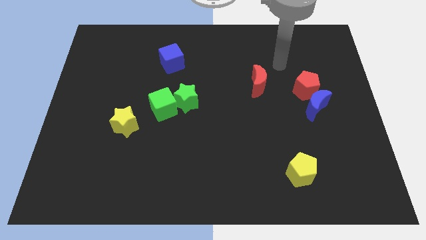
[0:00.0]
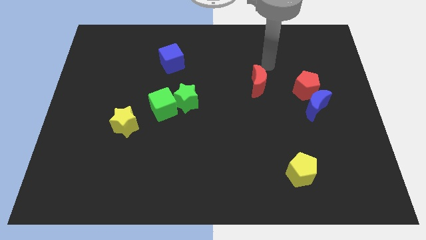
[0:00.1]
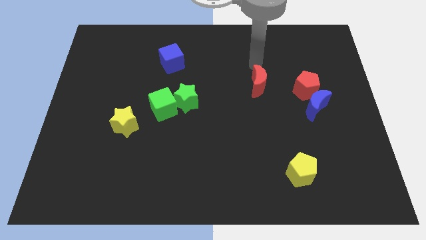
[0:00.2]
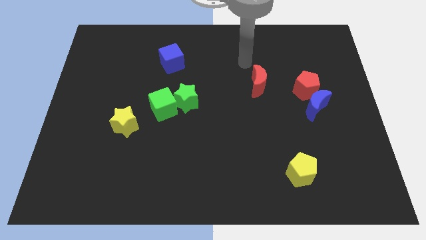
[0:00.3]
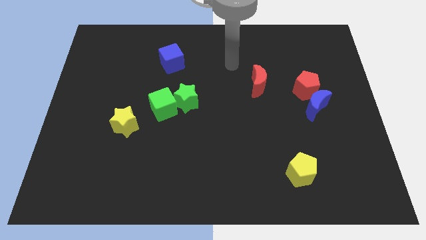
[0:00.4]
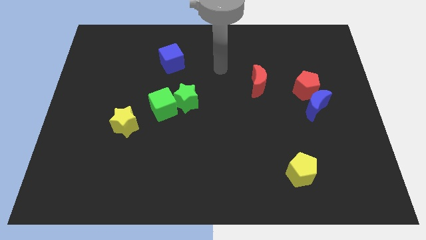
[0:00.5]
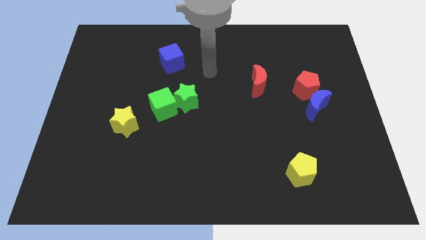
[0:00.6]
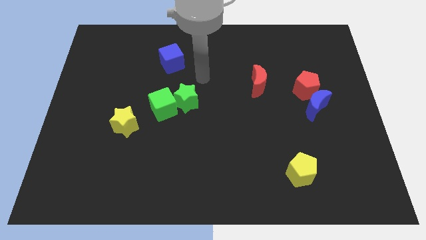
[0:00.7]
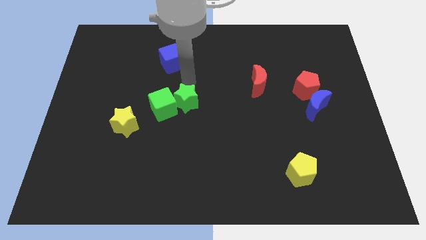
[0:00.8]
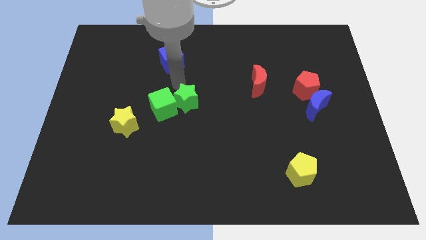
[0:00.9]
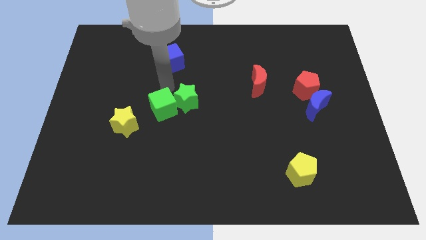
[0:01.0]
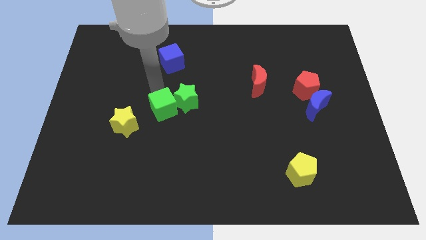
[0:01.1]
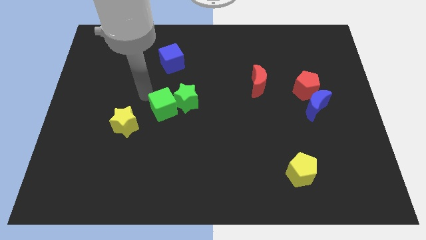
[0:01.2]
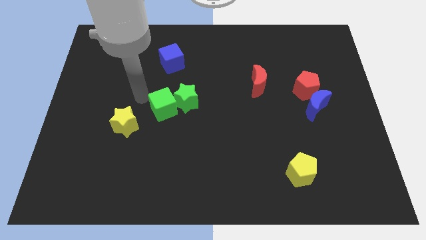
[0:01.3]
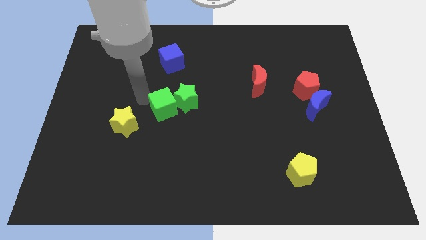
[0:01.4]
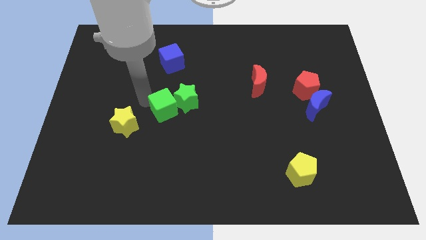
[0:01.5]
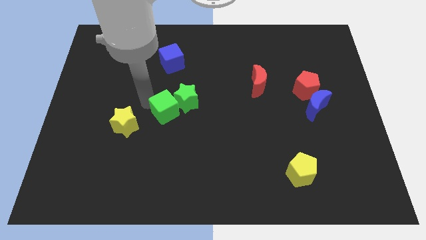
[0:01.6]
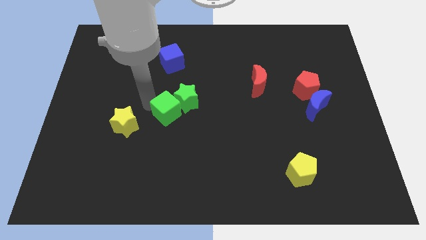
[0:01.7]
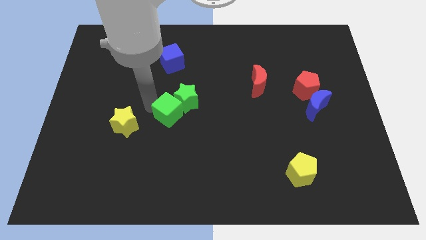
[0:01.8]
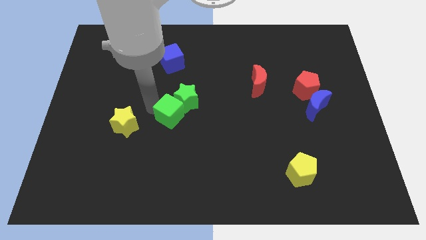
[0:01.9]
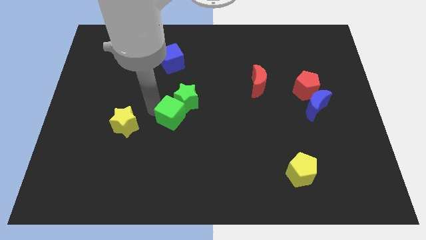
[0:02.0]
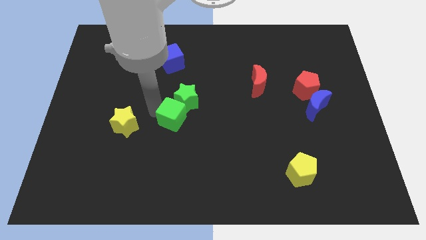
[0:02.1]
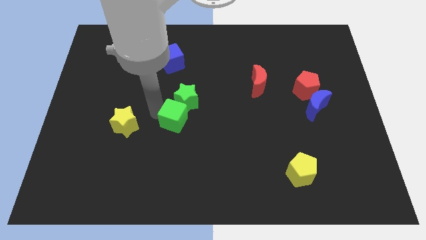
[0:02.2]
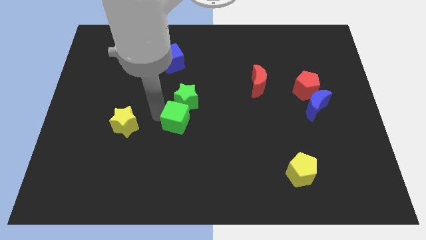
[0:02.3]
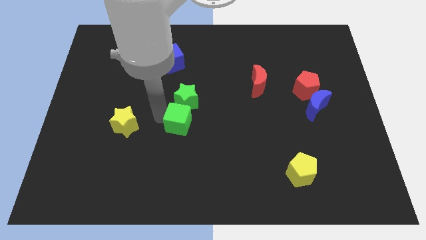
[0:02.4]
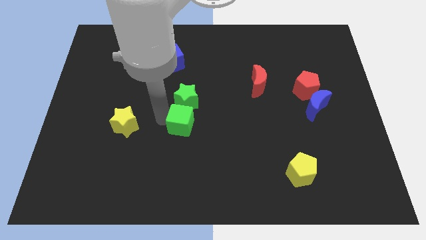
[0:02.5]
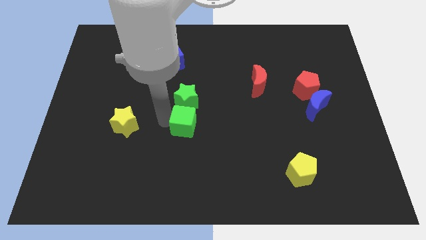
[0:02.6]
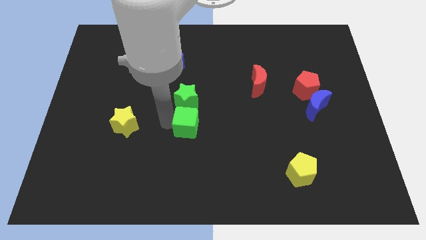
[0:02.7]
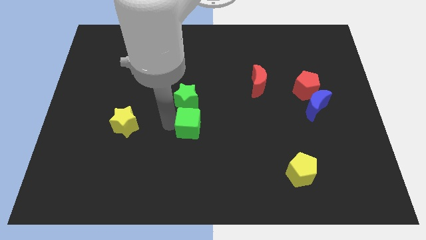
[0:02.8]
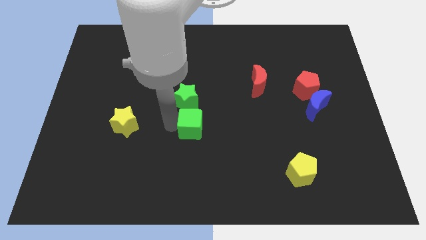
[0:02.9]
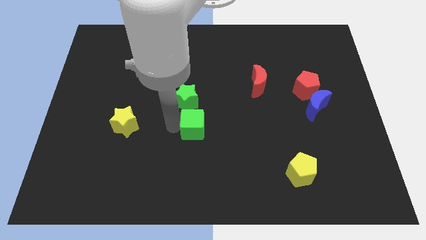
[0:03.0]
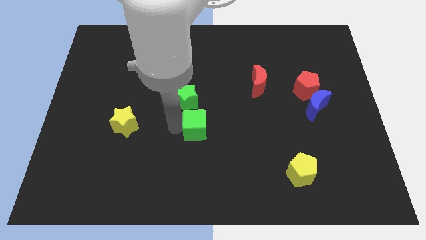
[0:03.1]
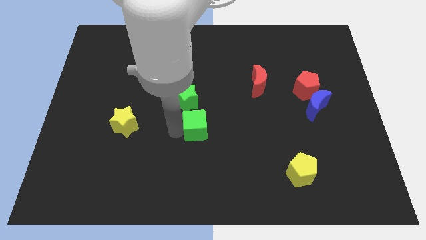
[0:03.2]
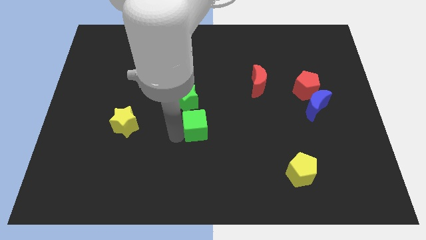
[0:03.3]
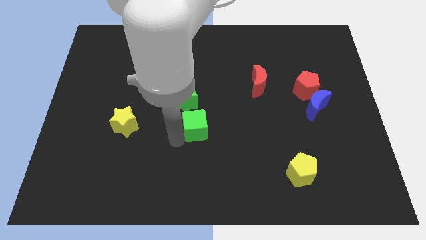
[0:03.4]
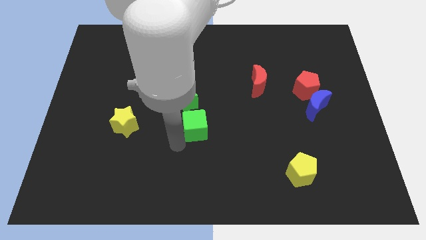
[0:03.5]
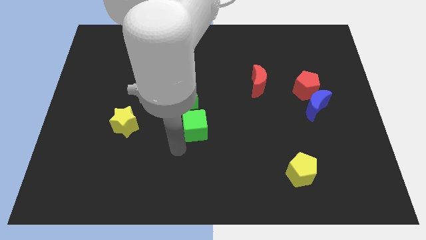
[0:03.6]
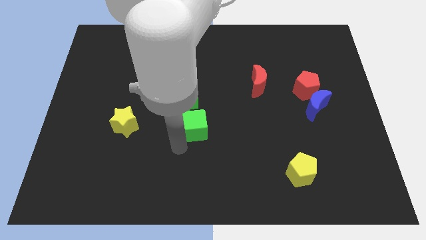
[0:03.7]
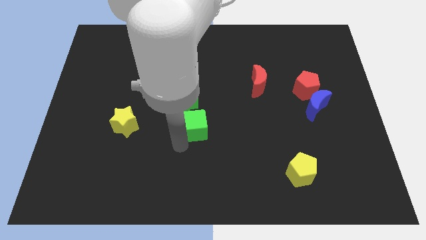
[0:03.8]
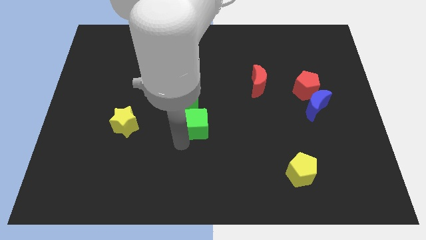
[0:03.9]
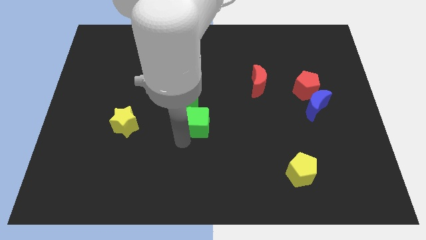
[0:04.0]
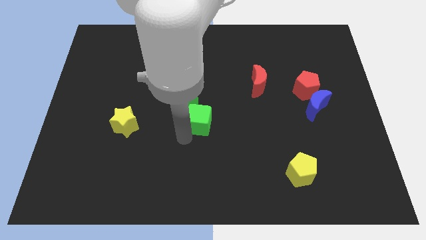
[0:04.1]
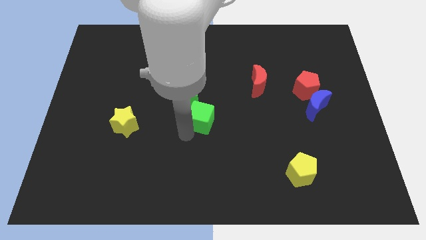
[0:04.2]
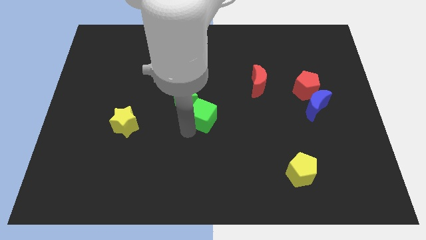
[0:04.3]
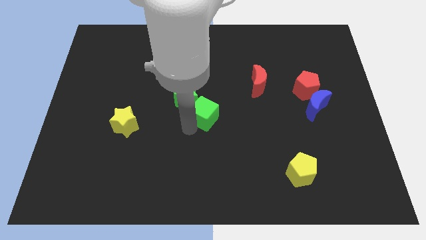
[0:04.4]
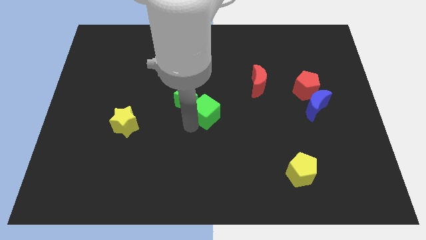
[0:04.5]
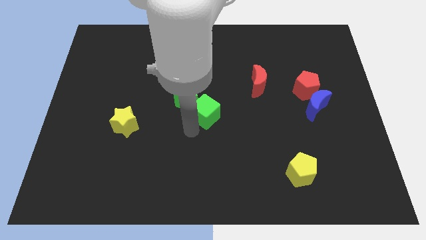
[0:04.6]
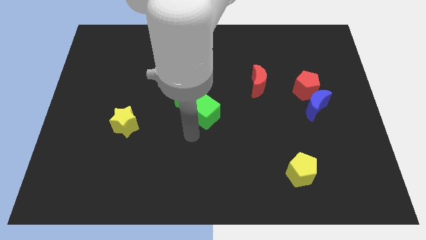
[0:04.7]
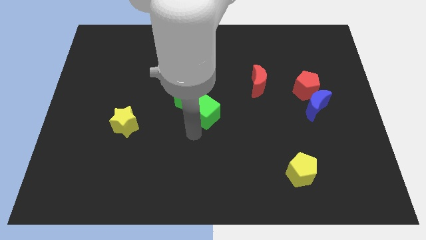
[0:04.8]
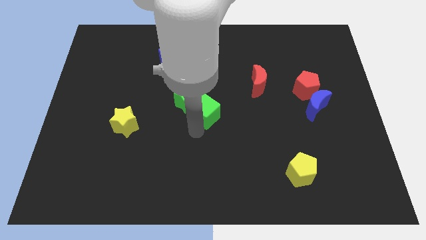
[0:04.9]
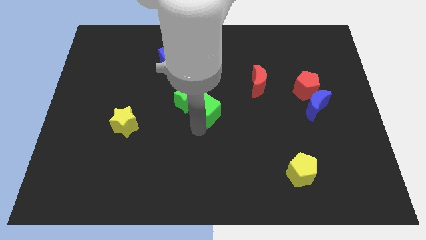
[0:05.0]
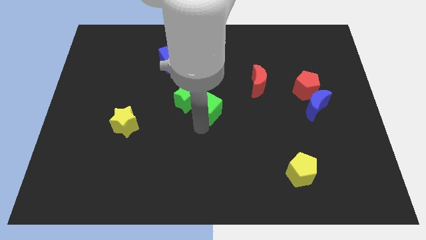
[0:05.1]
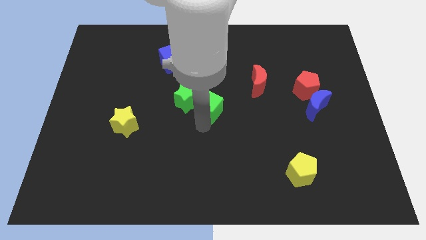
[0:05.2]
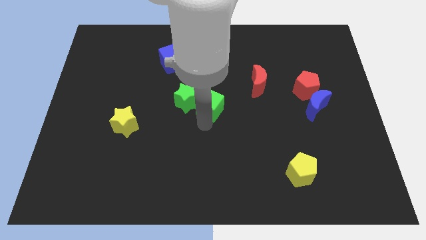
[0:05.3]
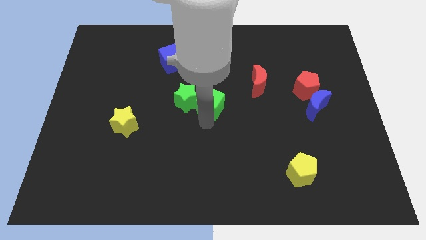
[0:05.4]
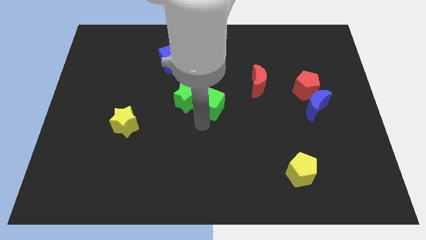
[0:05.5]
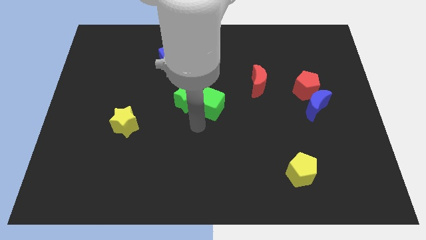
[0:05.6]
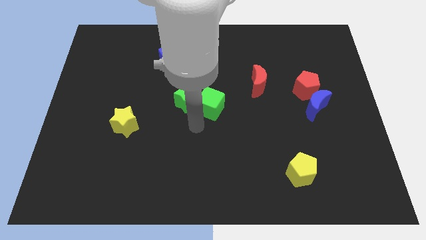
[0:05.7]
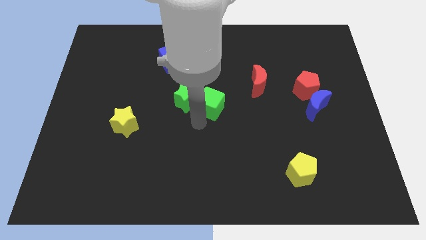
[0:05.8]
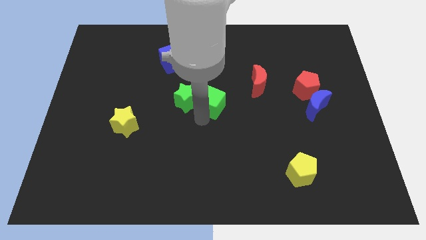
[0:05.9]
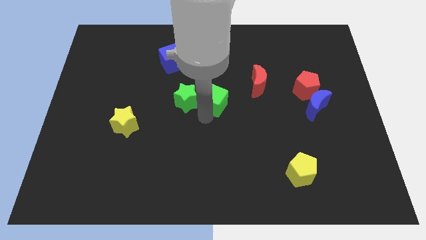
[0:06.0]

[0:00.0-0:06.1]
move the green cube up and then right somewhat

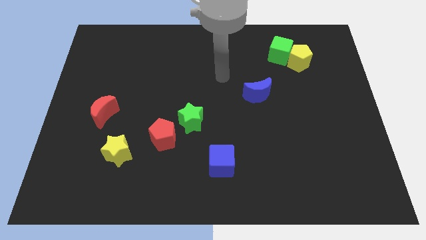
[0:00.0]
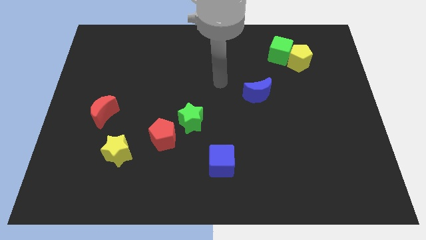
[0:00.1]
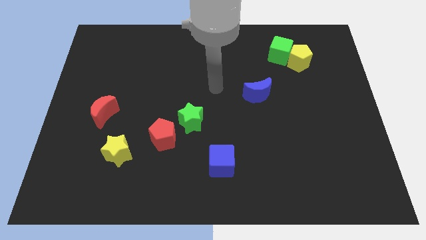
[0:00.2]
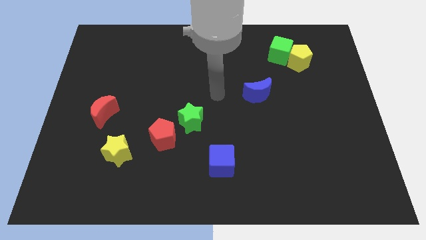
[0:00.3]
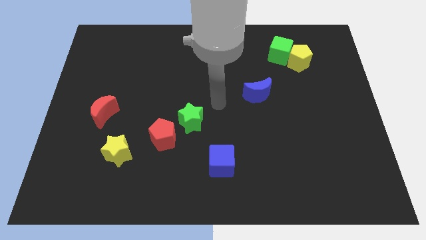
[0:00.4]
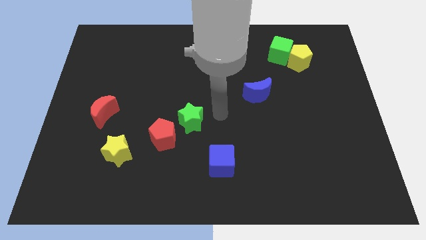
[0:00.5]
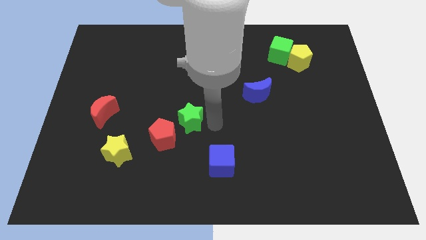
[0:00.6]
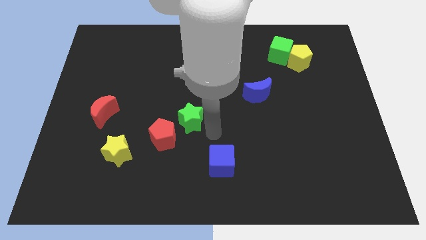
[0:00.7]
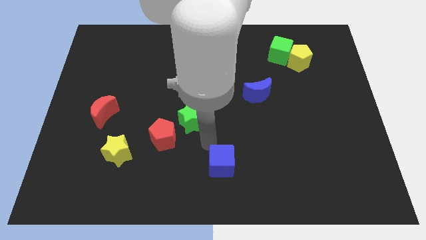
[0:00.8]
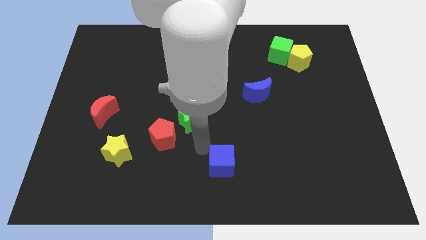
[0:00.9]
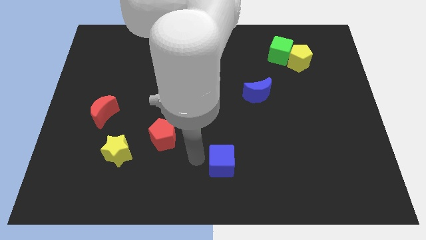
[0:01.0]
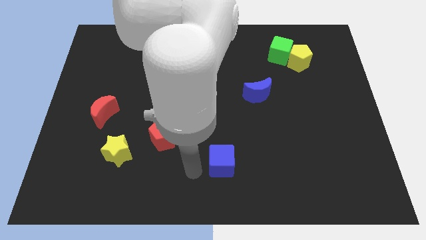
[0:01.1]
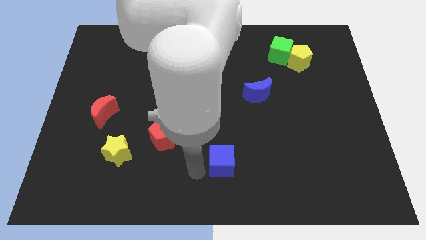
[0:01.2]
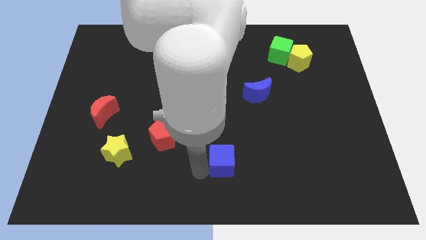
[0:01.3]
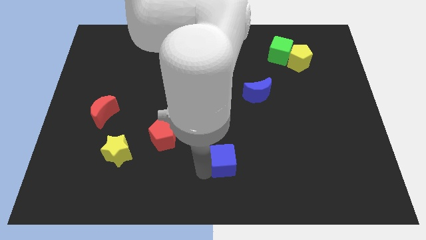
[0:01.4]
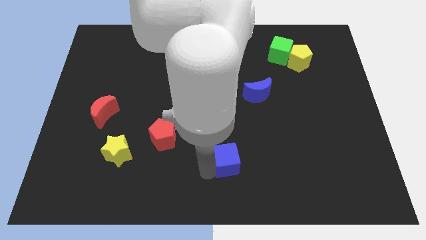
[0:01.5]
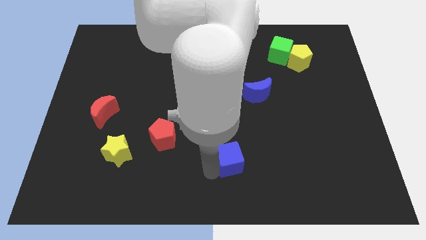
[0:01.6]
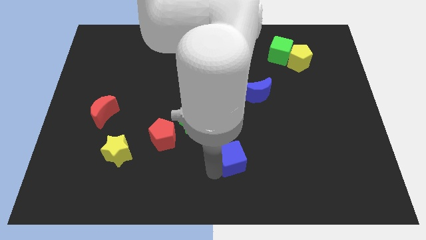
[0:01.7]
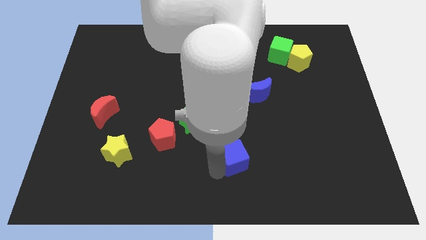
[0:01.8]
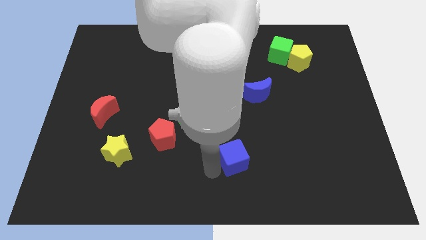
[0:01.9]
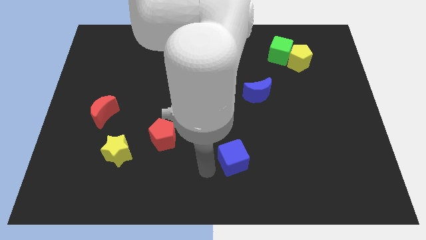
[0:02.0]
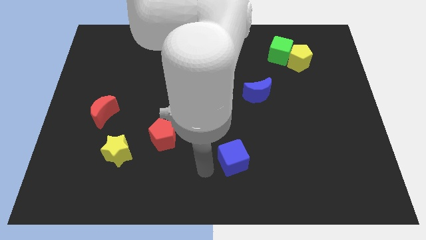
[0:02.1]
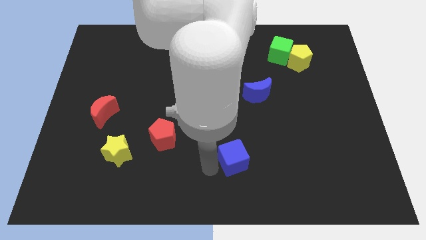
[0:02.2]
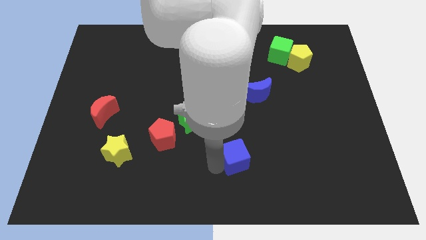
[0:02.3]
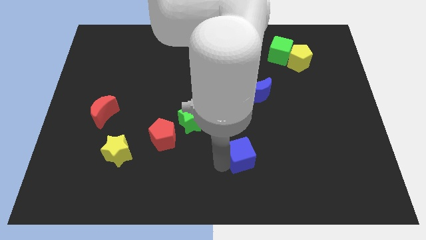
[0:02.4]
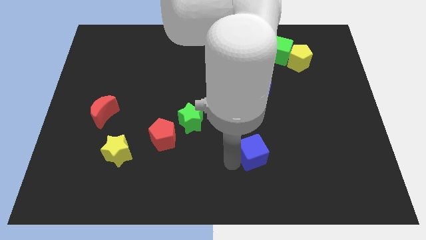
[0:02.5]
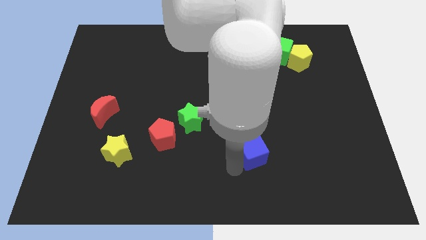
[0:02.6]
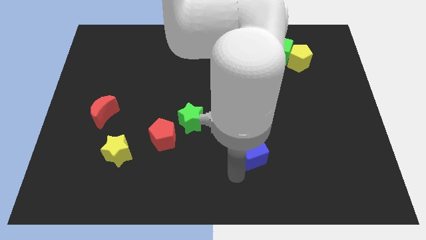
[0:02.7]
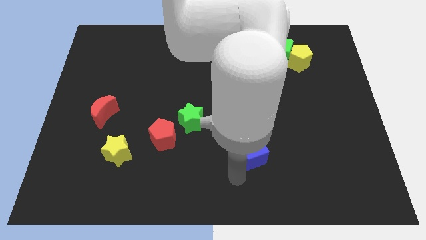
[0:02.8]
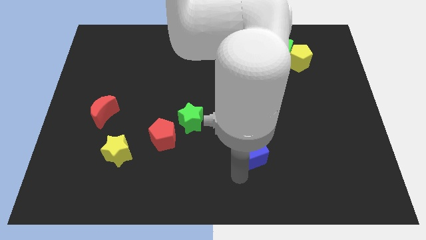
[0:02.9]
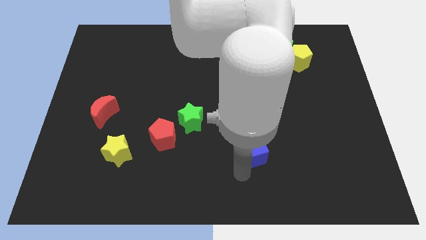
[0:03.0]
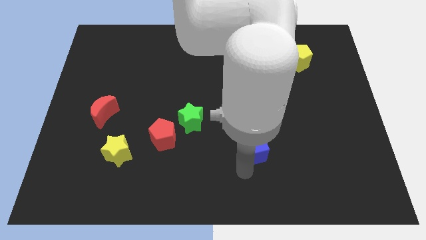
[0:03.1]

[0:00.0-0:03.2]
slightly slide the blue cube up and to the right
